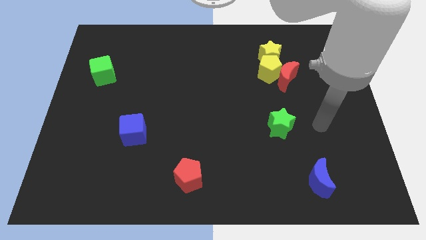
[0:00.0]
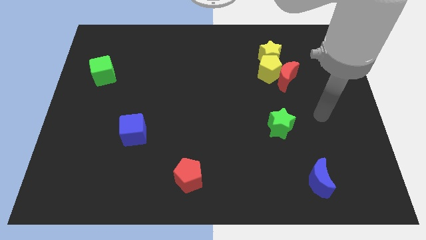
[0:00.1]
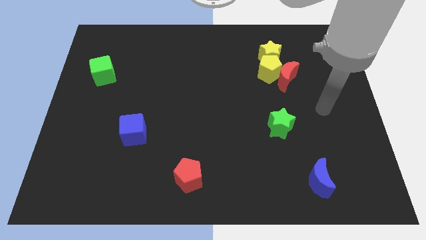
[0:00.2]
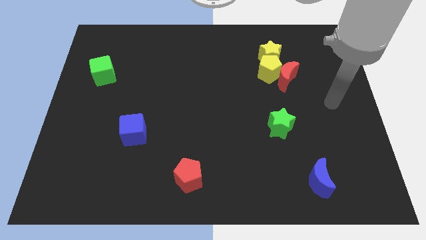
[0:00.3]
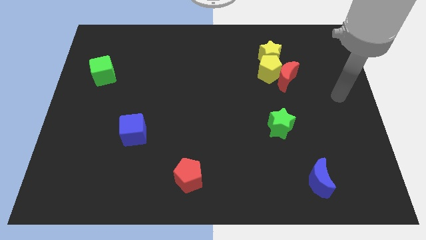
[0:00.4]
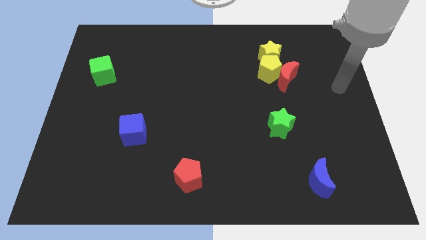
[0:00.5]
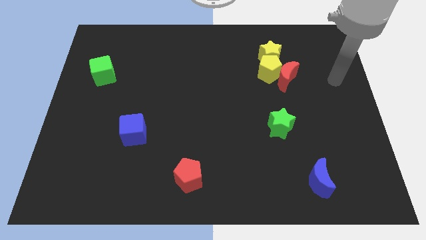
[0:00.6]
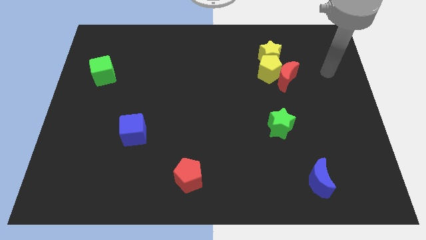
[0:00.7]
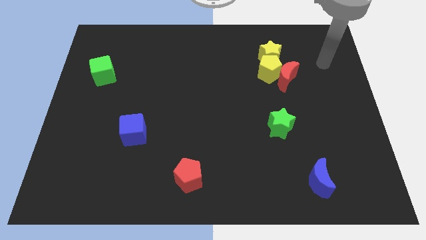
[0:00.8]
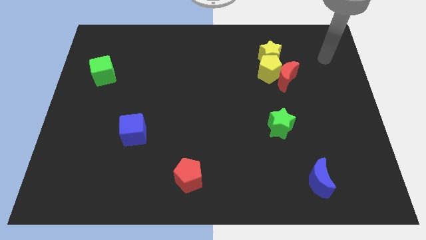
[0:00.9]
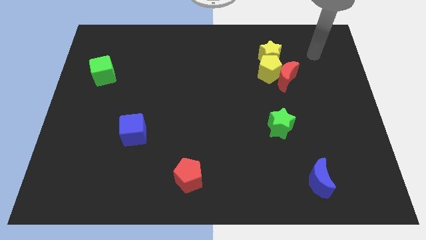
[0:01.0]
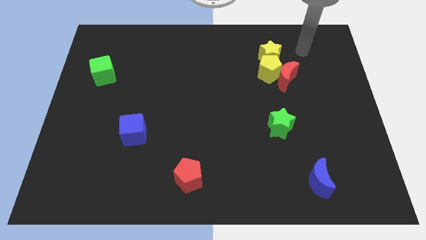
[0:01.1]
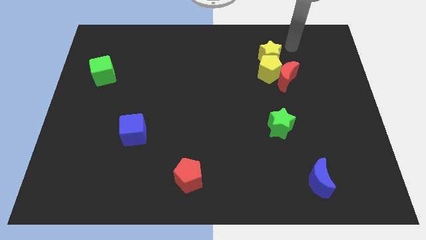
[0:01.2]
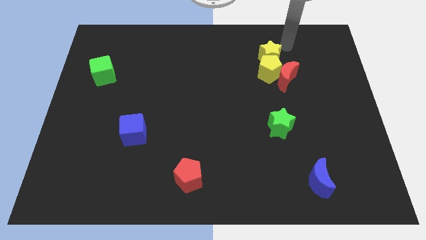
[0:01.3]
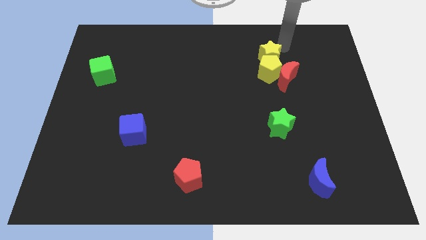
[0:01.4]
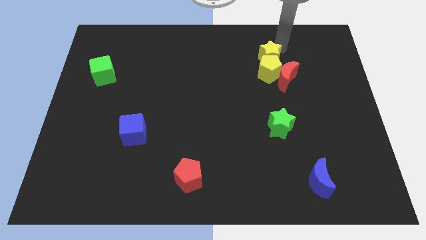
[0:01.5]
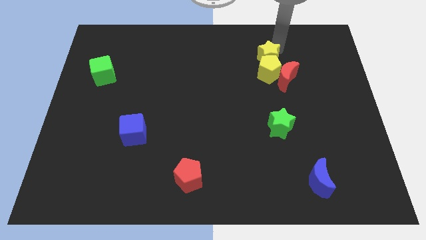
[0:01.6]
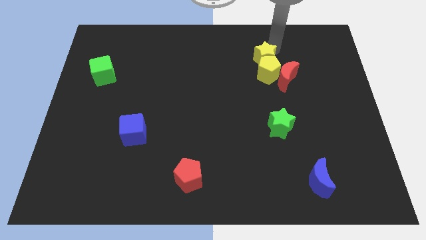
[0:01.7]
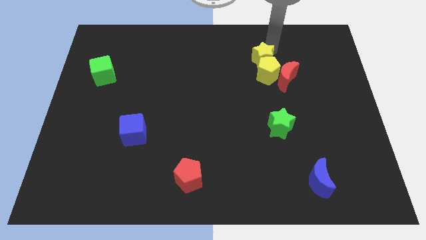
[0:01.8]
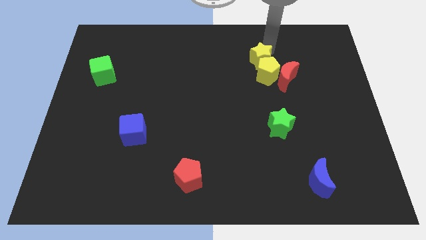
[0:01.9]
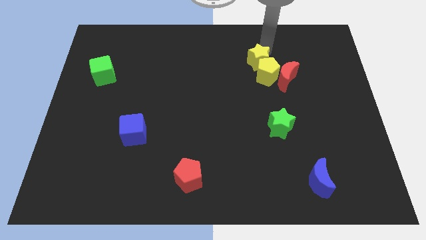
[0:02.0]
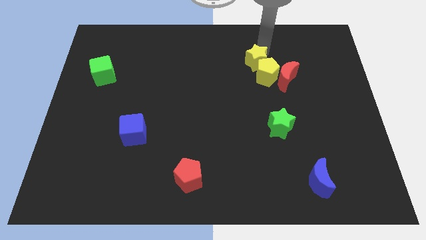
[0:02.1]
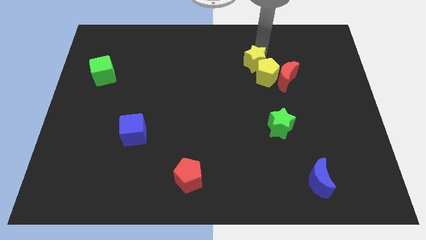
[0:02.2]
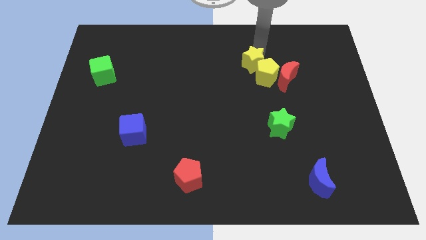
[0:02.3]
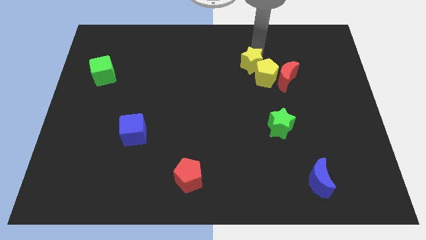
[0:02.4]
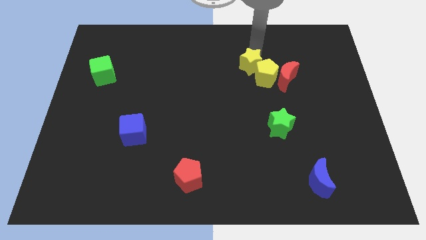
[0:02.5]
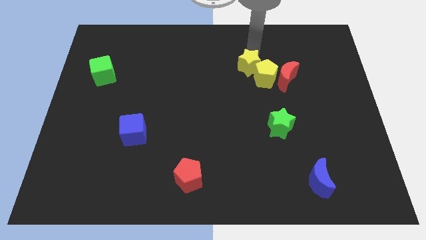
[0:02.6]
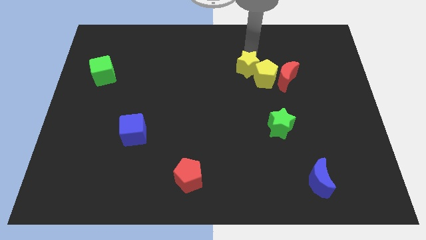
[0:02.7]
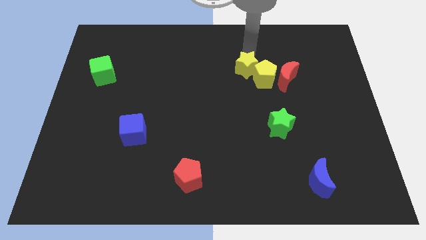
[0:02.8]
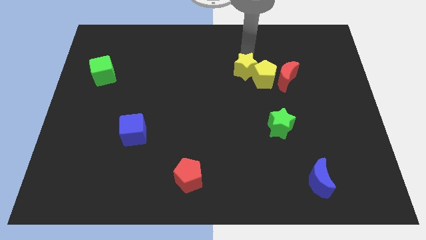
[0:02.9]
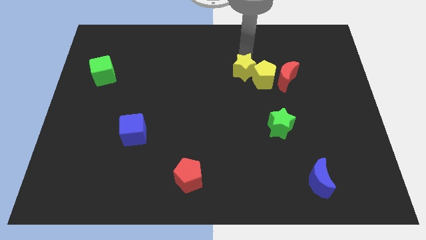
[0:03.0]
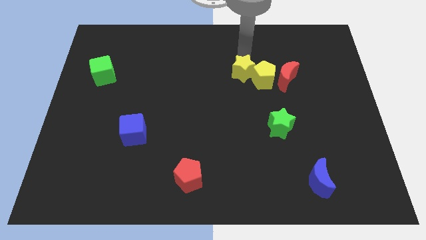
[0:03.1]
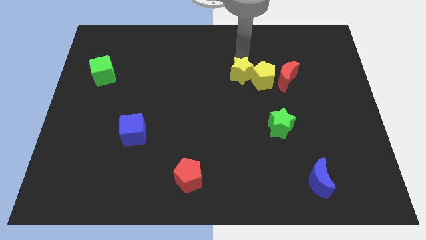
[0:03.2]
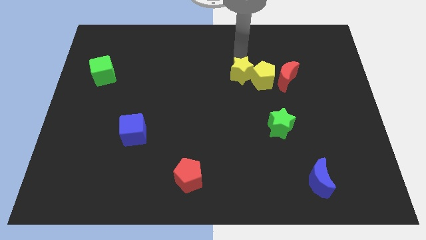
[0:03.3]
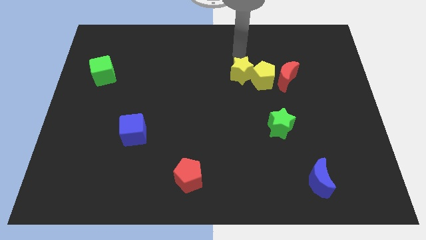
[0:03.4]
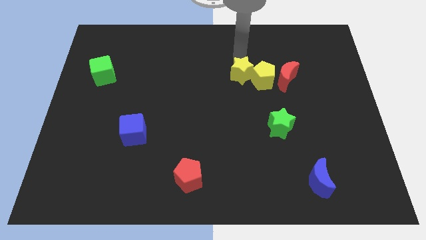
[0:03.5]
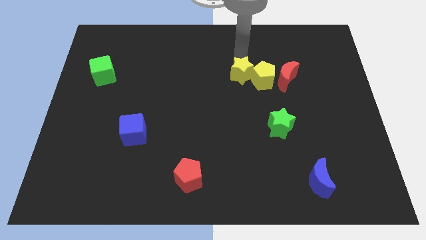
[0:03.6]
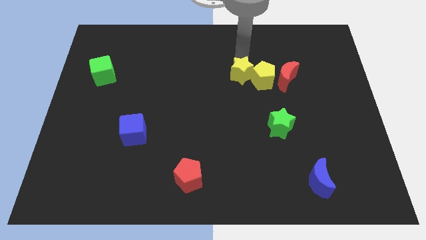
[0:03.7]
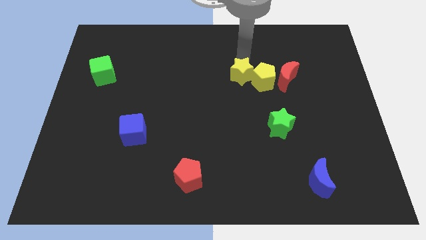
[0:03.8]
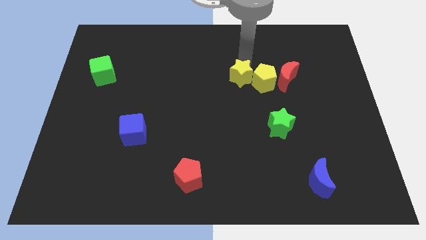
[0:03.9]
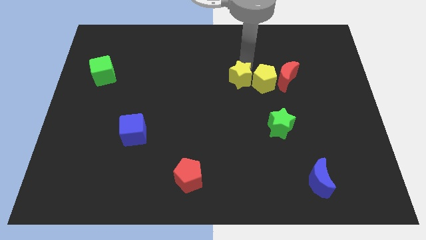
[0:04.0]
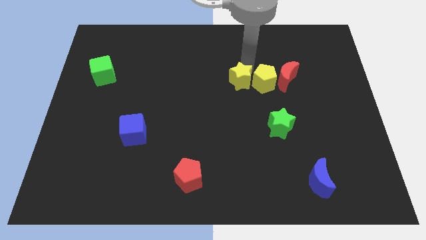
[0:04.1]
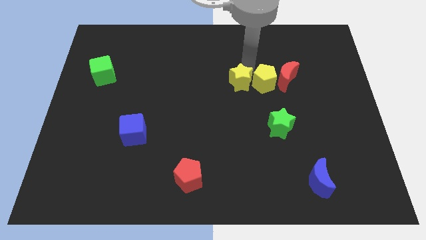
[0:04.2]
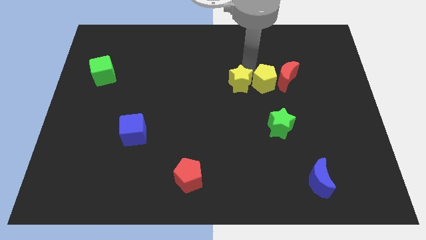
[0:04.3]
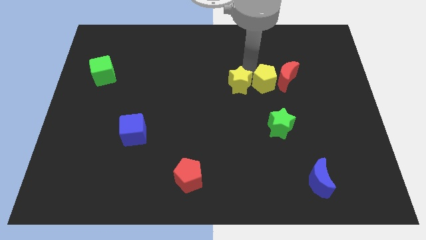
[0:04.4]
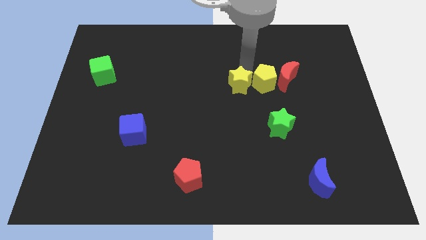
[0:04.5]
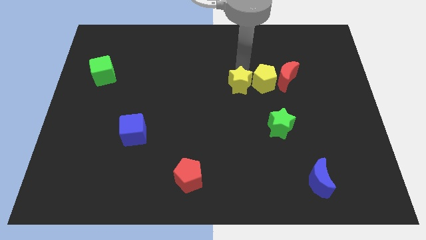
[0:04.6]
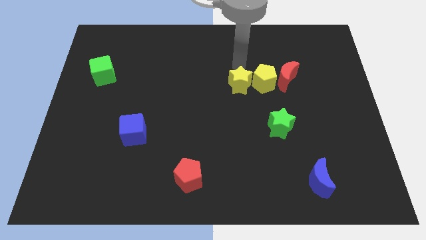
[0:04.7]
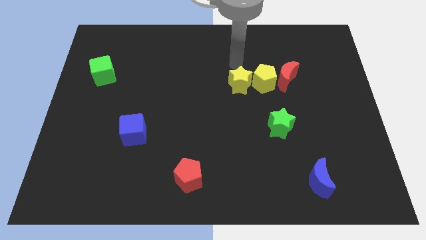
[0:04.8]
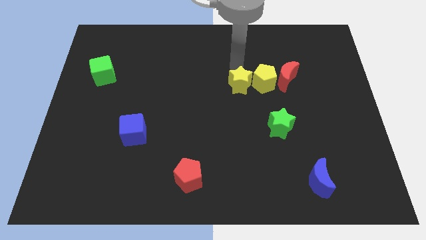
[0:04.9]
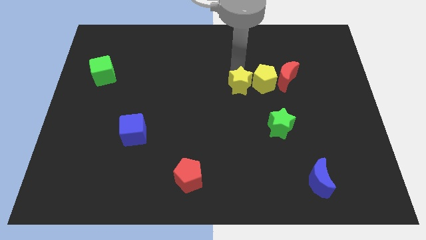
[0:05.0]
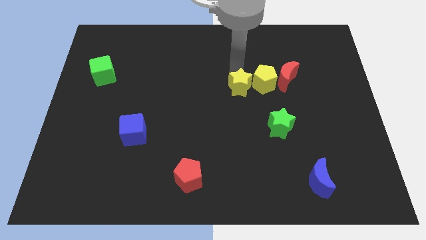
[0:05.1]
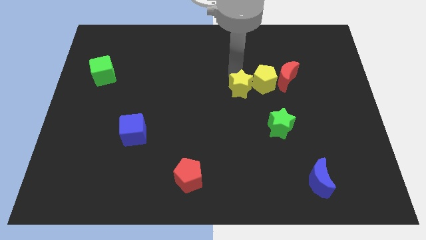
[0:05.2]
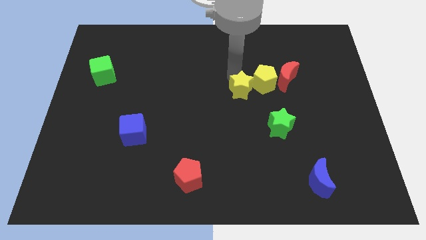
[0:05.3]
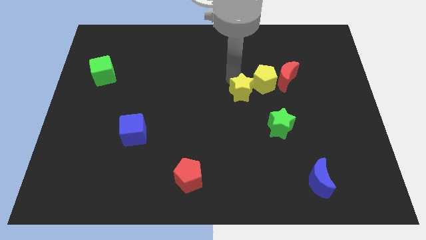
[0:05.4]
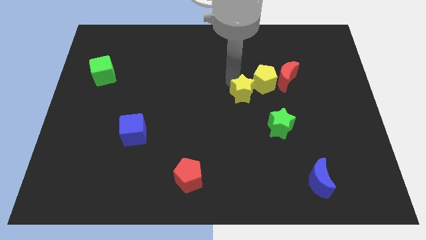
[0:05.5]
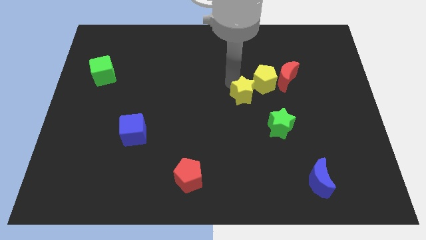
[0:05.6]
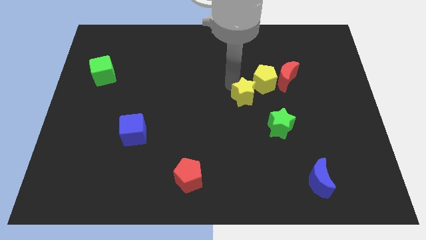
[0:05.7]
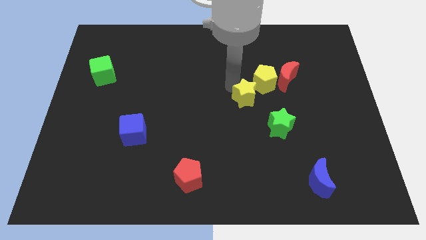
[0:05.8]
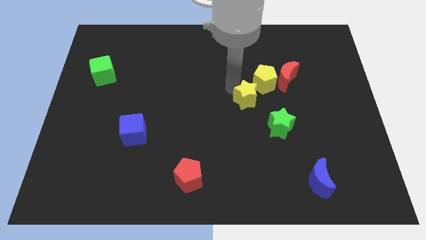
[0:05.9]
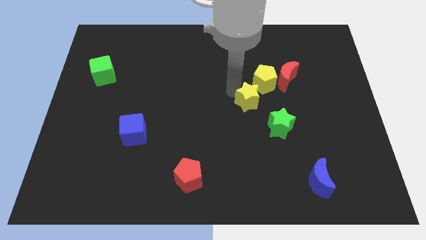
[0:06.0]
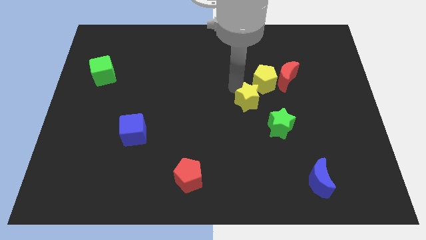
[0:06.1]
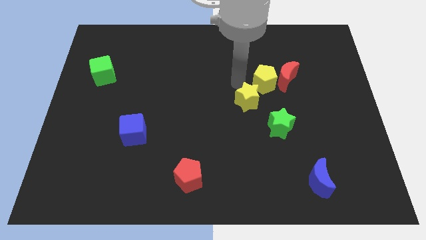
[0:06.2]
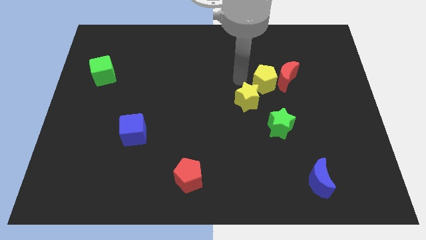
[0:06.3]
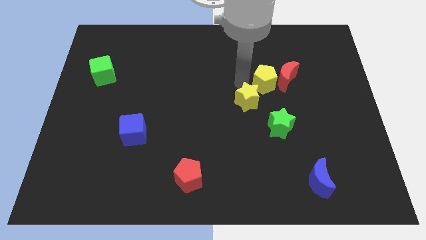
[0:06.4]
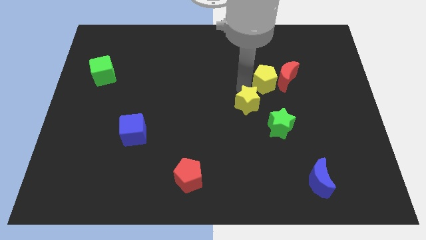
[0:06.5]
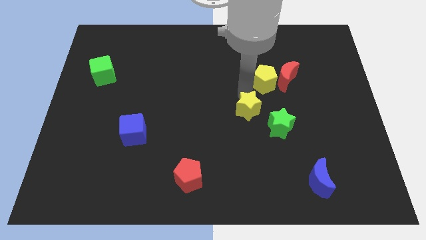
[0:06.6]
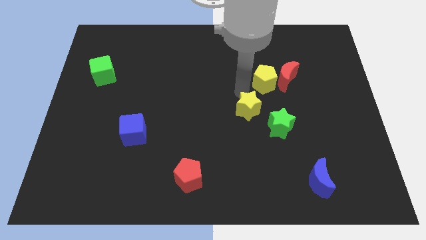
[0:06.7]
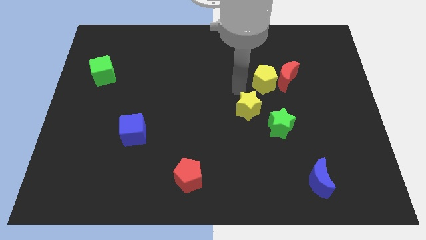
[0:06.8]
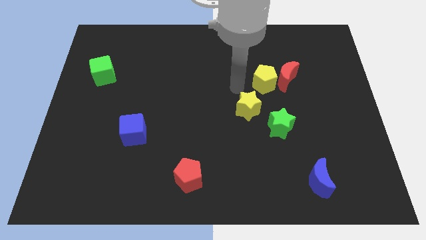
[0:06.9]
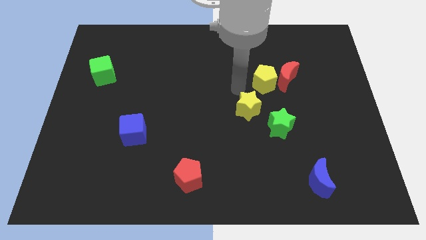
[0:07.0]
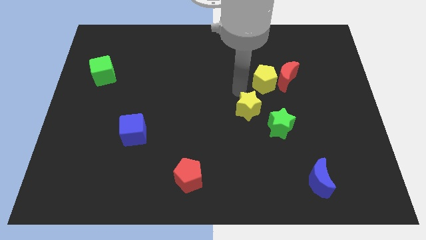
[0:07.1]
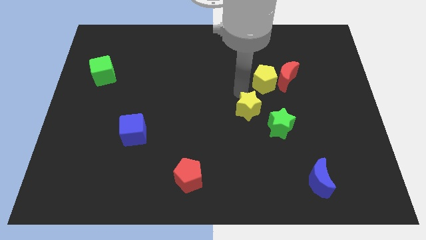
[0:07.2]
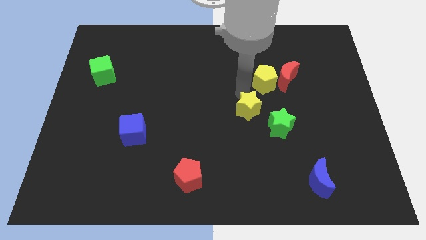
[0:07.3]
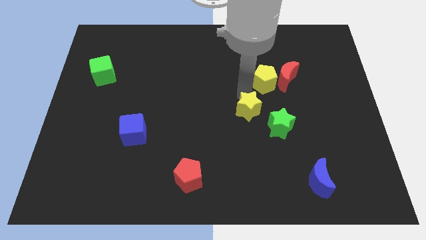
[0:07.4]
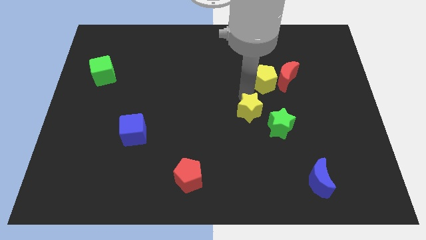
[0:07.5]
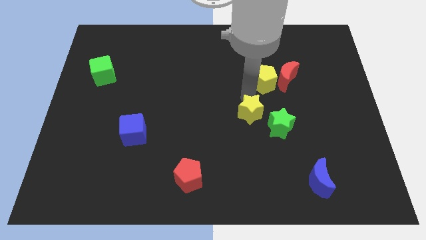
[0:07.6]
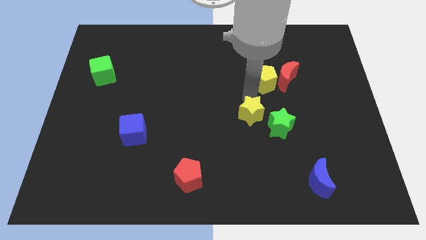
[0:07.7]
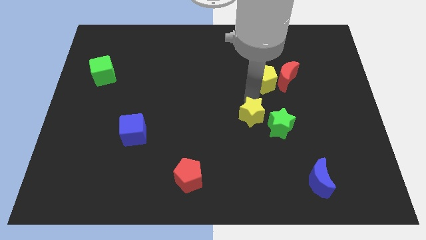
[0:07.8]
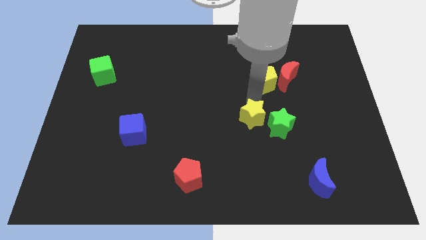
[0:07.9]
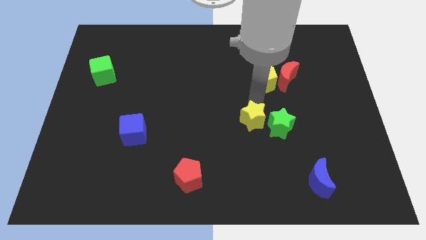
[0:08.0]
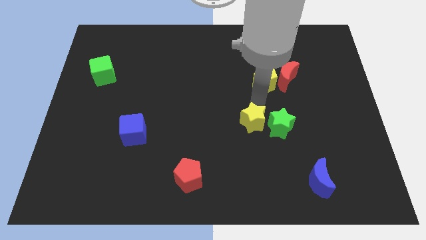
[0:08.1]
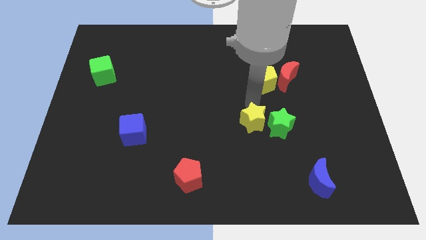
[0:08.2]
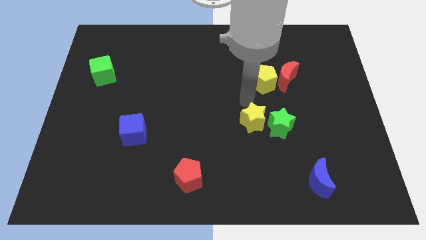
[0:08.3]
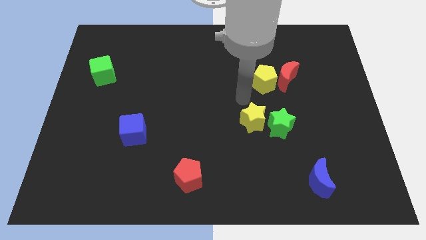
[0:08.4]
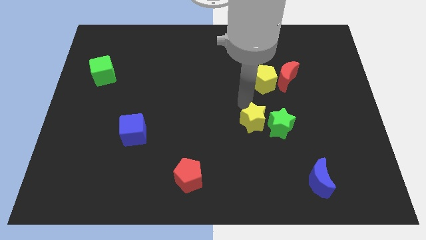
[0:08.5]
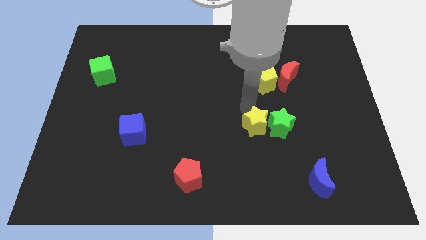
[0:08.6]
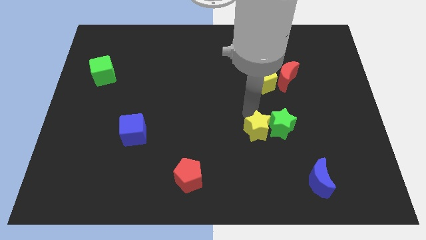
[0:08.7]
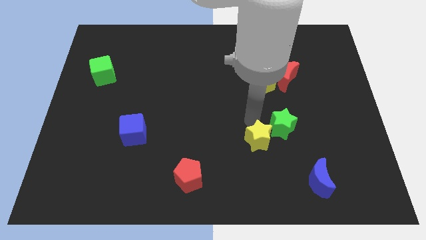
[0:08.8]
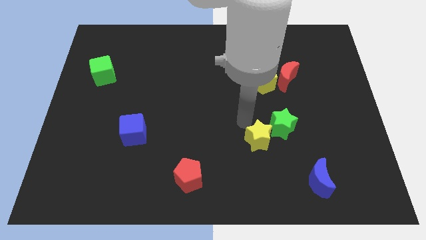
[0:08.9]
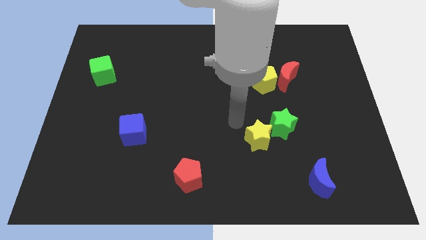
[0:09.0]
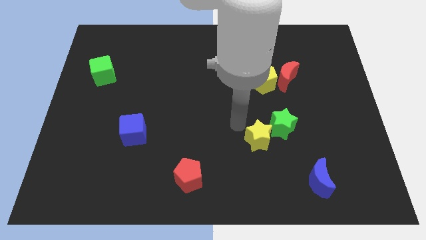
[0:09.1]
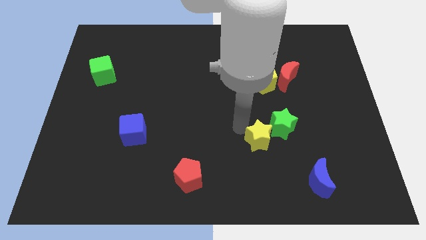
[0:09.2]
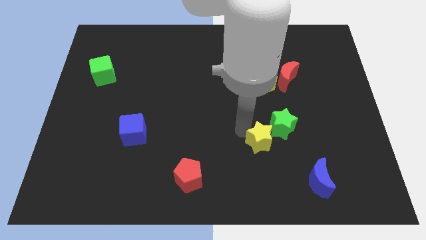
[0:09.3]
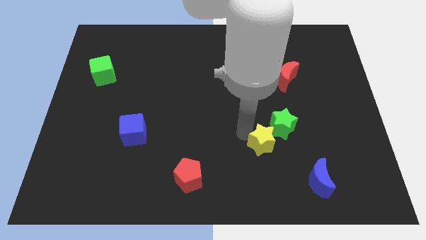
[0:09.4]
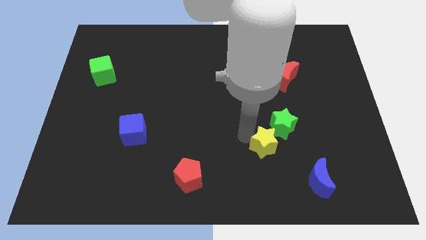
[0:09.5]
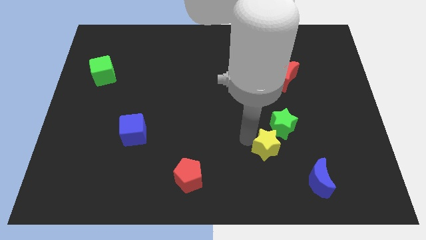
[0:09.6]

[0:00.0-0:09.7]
push the yellow star to the top left of the blue moon
